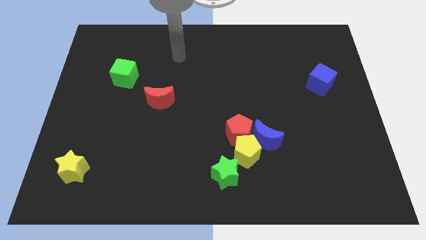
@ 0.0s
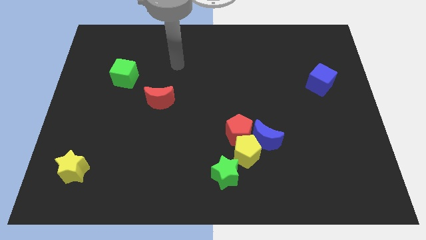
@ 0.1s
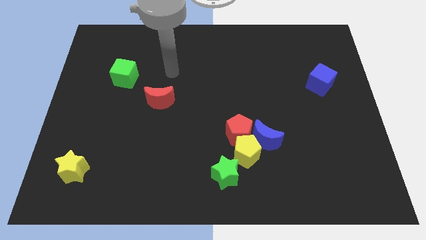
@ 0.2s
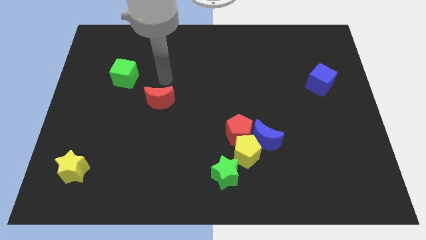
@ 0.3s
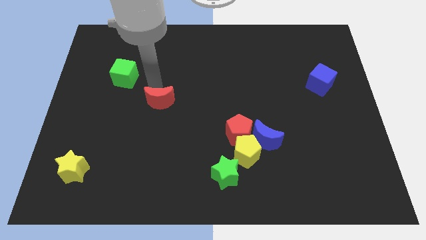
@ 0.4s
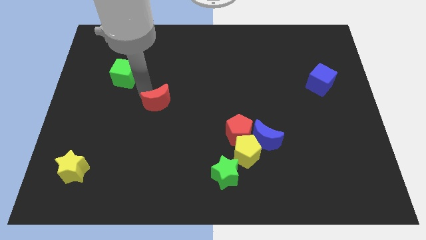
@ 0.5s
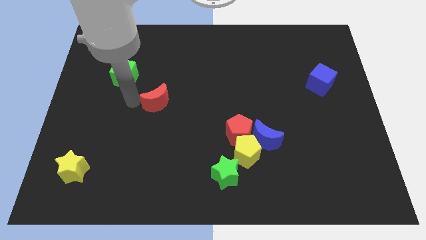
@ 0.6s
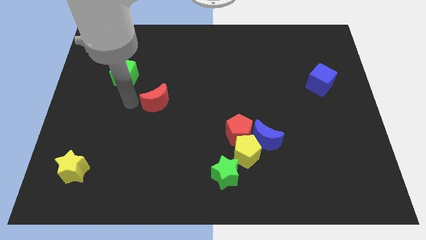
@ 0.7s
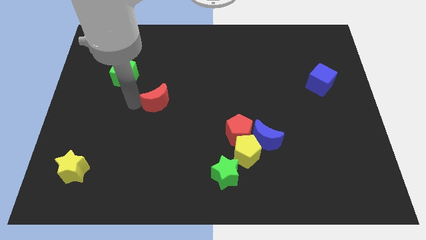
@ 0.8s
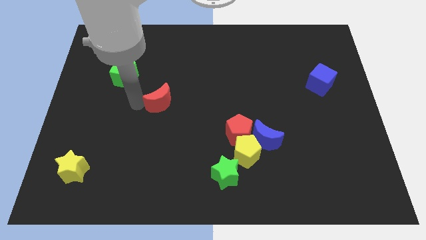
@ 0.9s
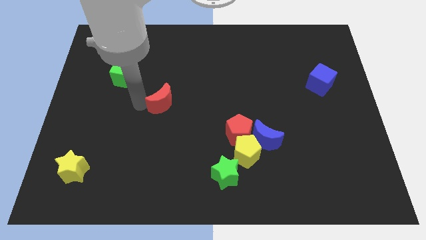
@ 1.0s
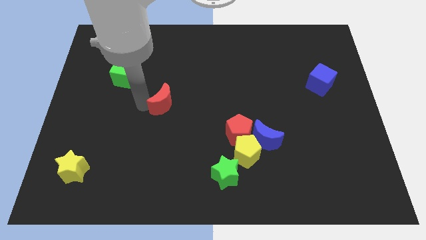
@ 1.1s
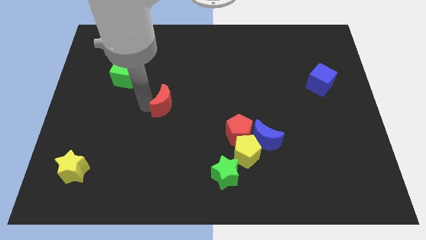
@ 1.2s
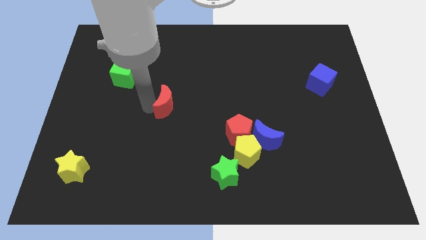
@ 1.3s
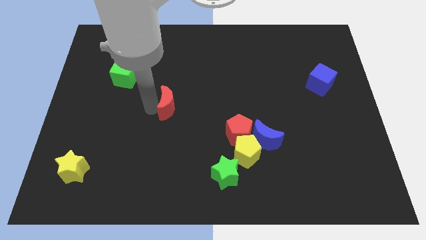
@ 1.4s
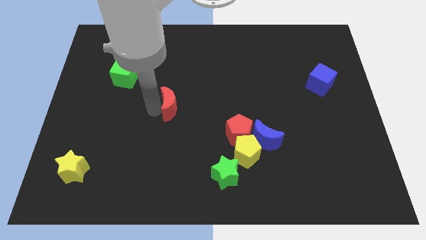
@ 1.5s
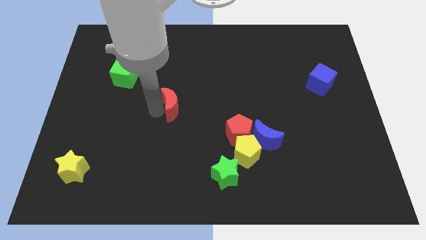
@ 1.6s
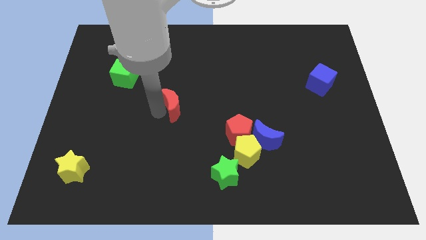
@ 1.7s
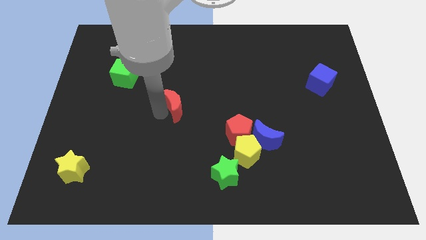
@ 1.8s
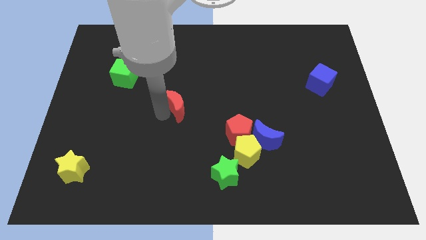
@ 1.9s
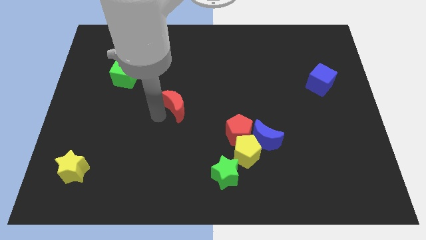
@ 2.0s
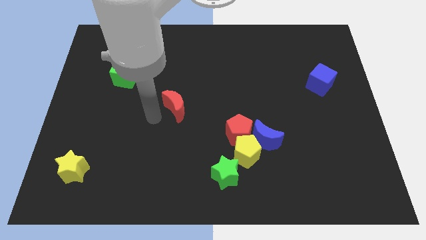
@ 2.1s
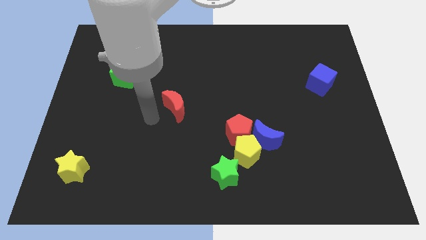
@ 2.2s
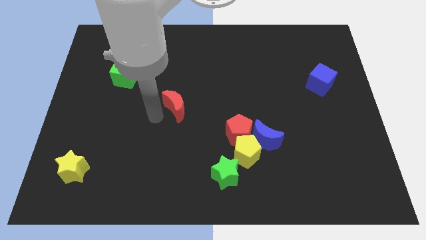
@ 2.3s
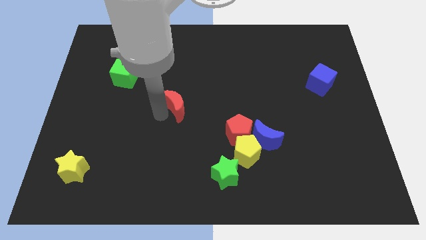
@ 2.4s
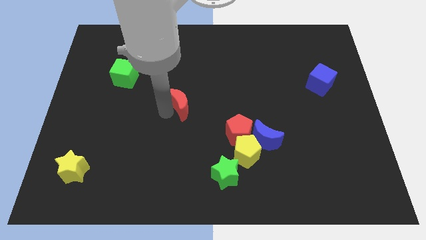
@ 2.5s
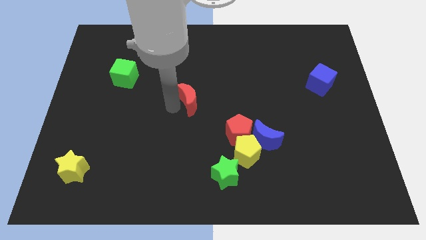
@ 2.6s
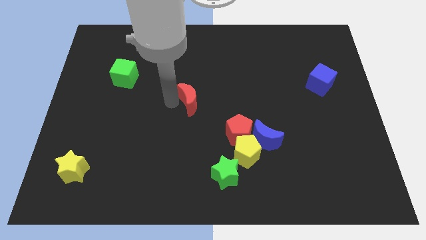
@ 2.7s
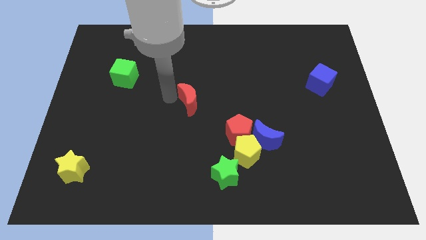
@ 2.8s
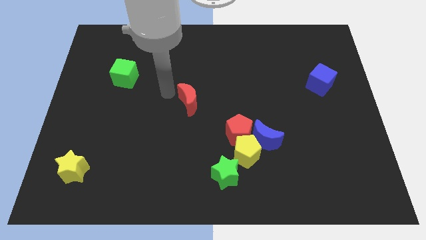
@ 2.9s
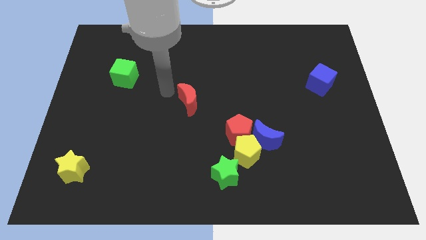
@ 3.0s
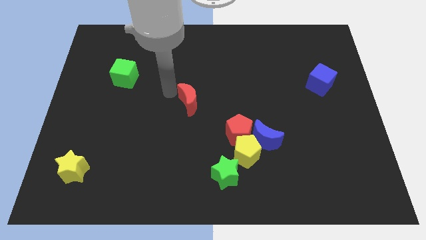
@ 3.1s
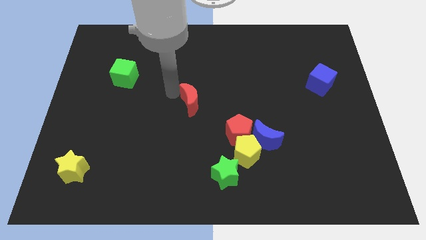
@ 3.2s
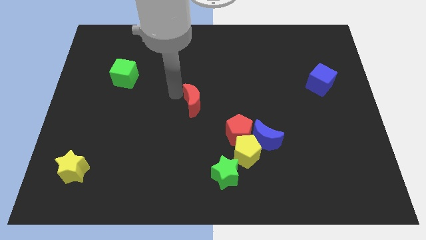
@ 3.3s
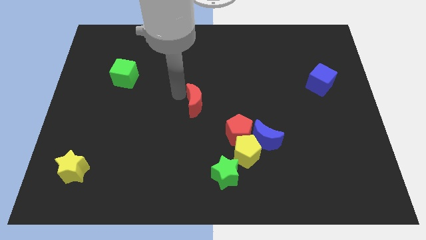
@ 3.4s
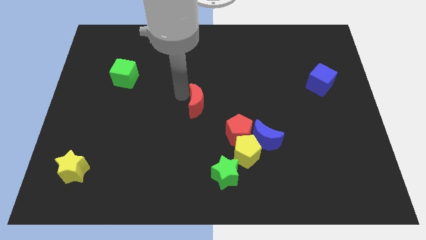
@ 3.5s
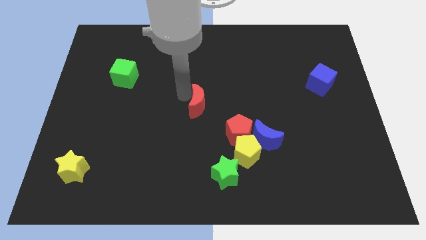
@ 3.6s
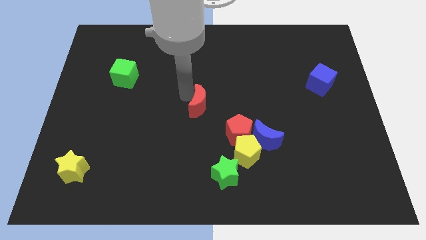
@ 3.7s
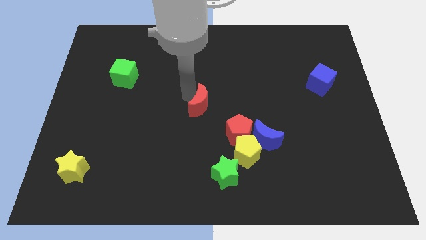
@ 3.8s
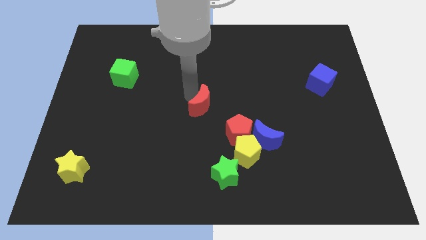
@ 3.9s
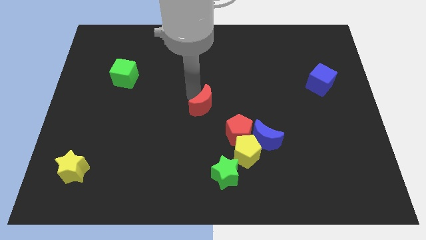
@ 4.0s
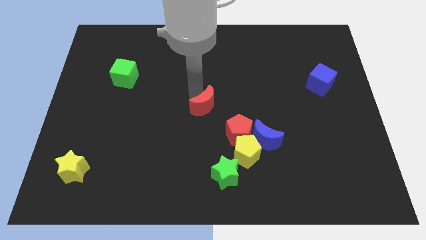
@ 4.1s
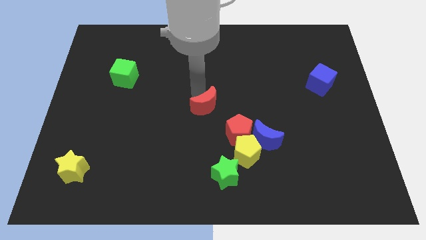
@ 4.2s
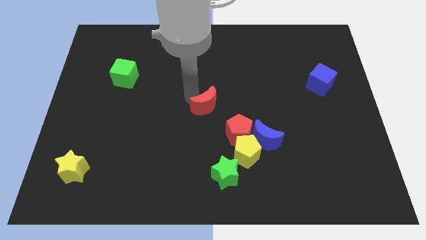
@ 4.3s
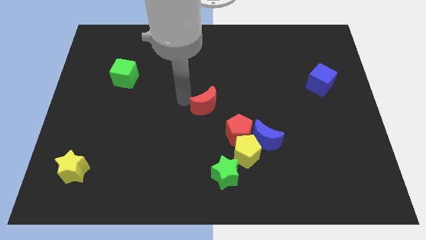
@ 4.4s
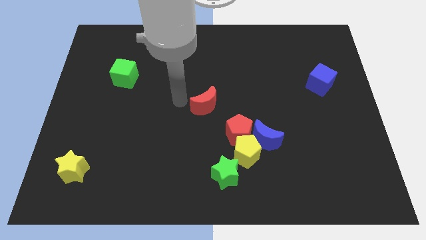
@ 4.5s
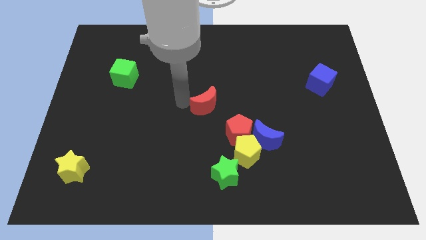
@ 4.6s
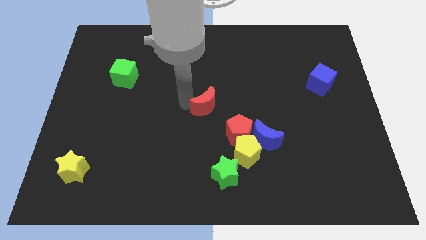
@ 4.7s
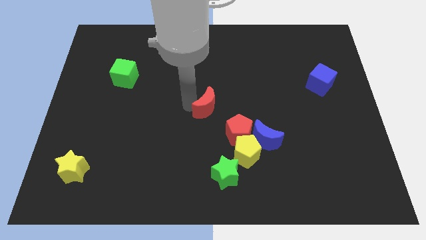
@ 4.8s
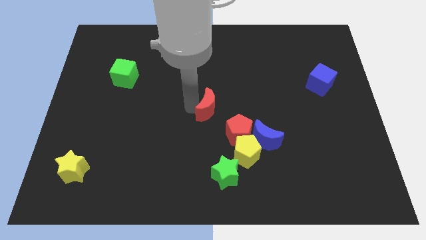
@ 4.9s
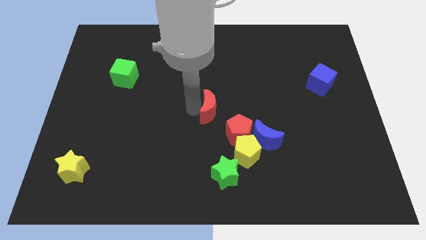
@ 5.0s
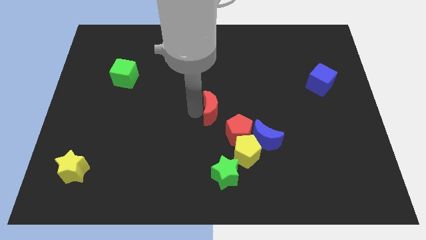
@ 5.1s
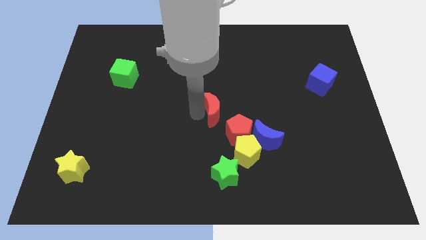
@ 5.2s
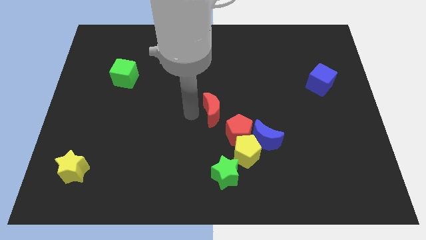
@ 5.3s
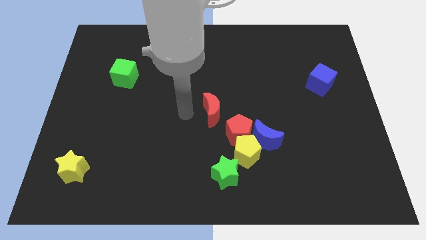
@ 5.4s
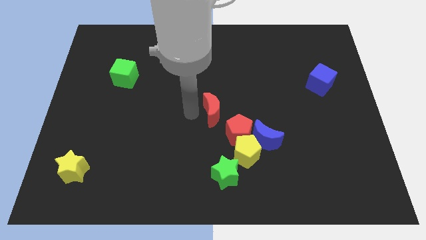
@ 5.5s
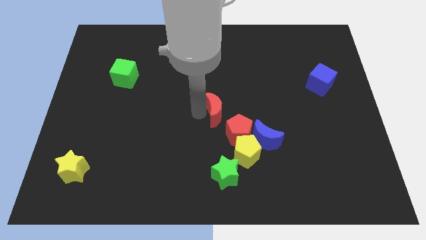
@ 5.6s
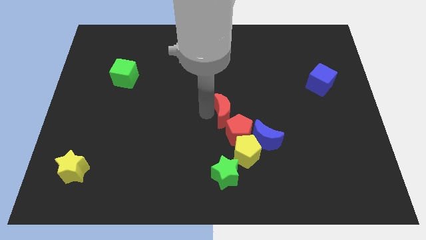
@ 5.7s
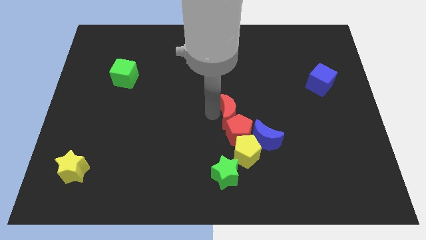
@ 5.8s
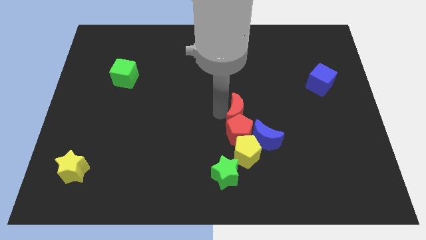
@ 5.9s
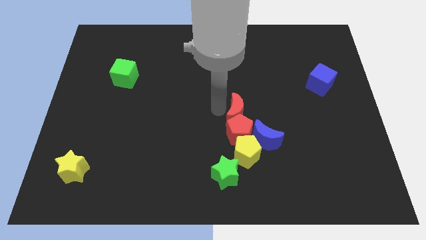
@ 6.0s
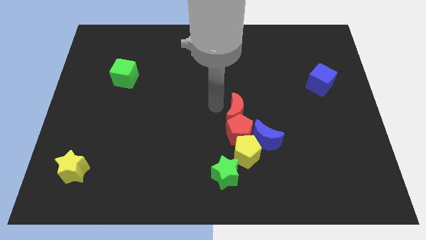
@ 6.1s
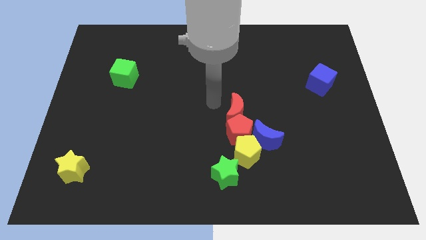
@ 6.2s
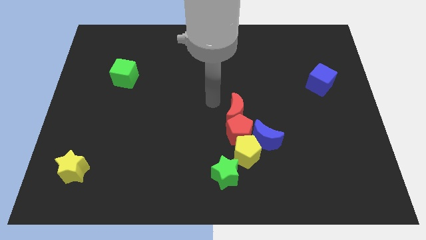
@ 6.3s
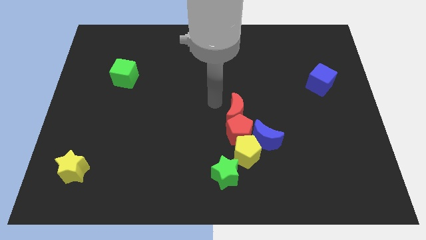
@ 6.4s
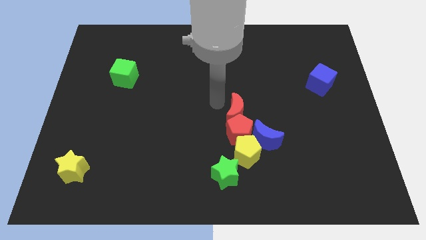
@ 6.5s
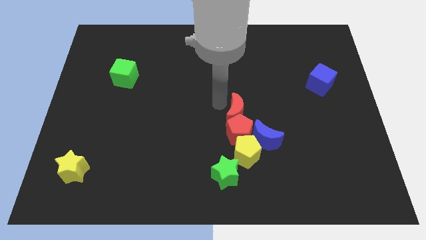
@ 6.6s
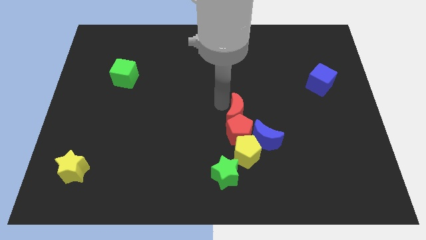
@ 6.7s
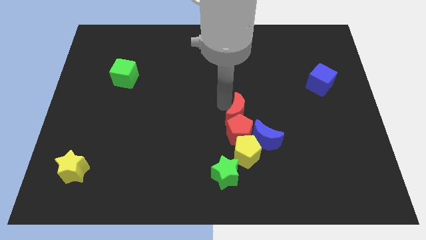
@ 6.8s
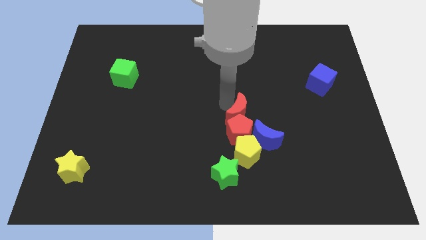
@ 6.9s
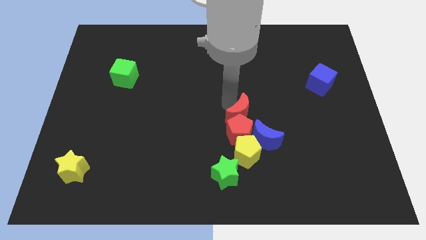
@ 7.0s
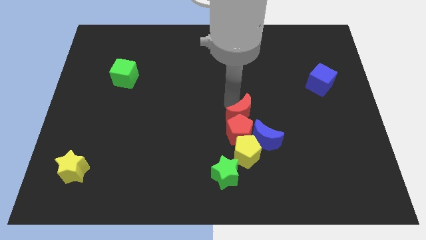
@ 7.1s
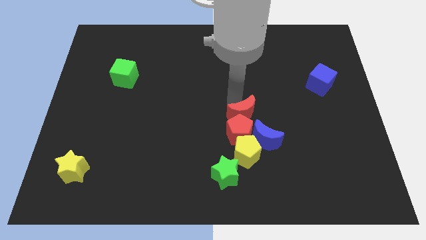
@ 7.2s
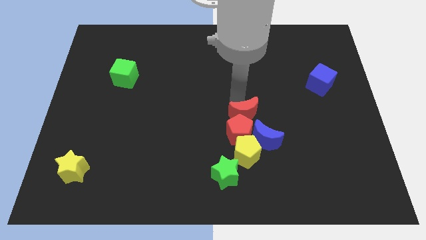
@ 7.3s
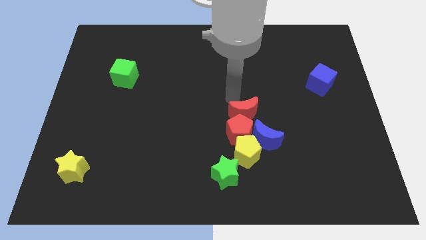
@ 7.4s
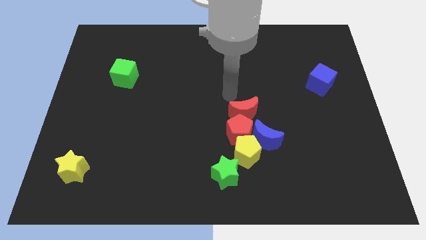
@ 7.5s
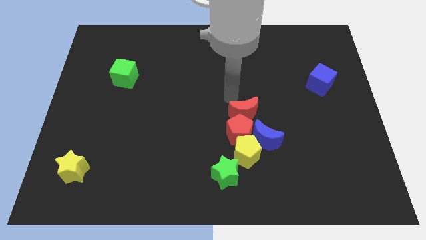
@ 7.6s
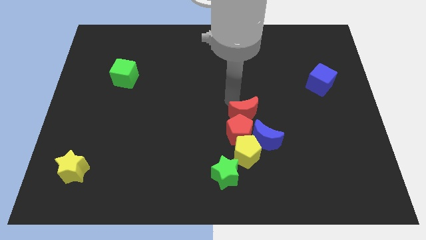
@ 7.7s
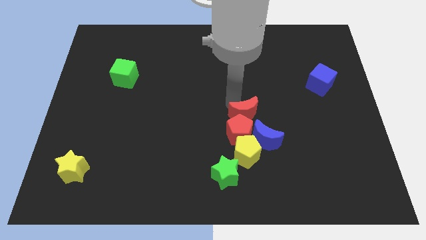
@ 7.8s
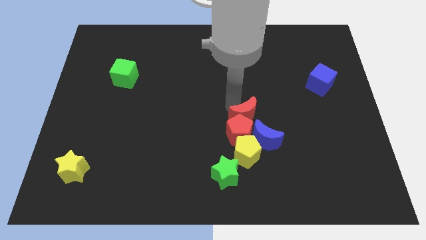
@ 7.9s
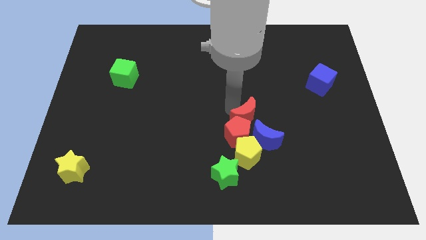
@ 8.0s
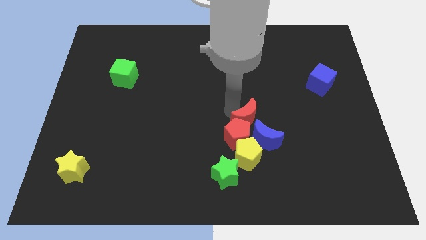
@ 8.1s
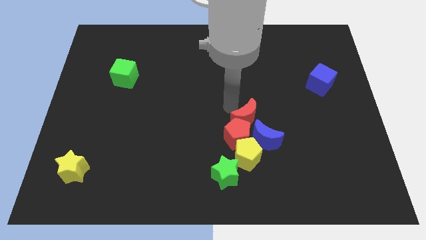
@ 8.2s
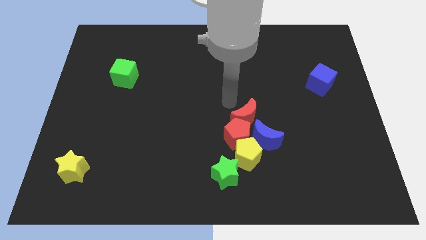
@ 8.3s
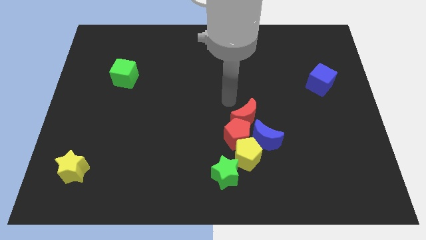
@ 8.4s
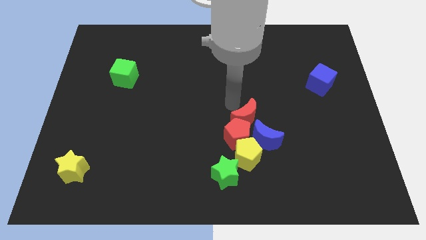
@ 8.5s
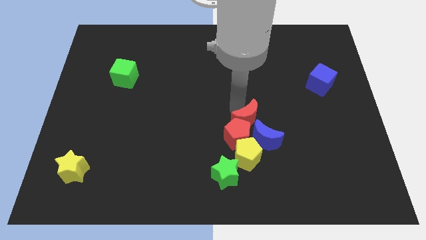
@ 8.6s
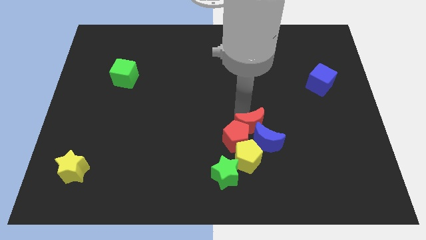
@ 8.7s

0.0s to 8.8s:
move the red moon to the blue moon
